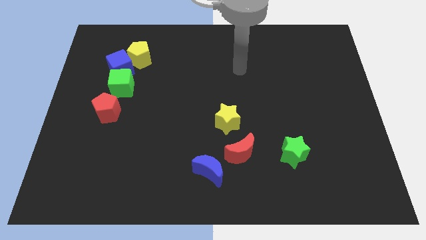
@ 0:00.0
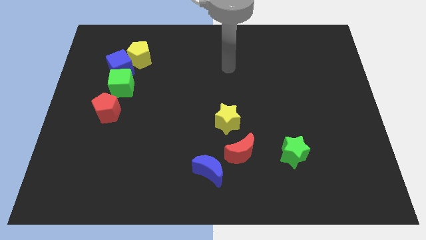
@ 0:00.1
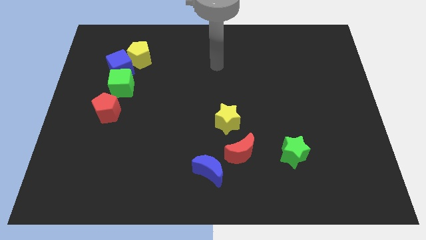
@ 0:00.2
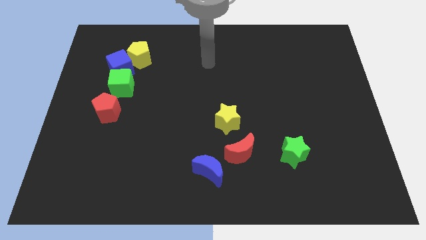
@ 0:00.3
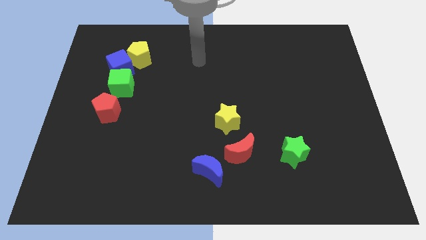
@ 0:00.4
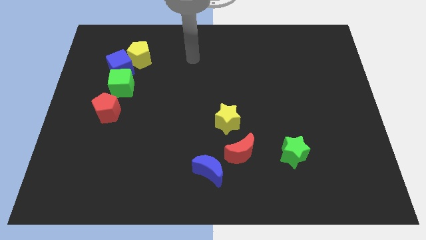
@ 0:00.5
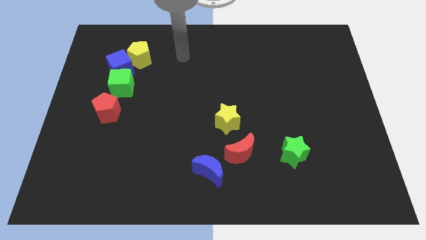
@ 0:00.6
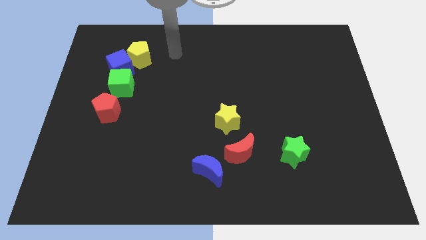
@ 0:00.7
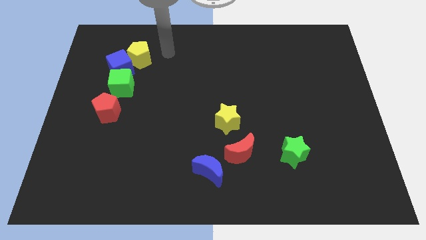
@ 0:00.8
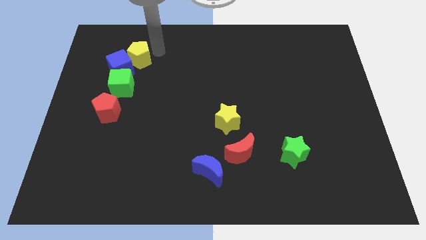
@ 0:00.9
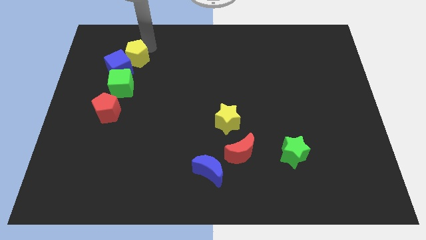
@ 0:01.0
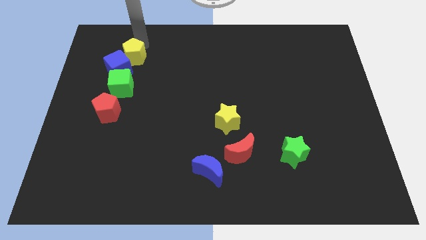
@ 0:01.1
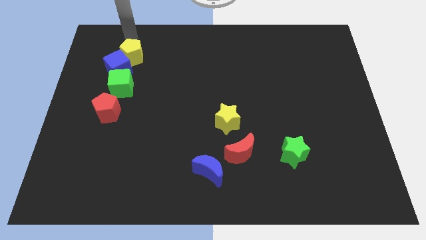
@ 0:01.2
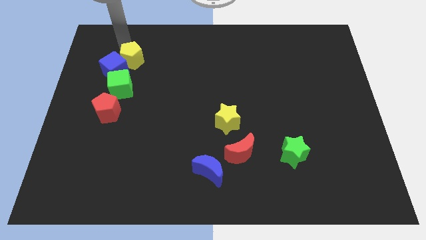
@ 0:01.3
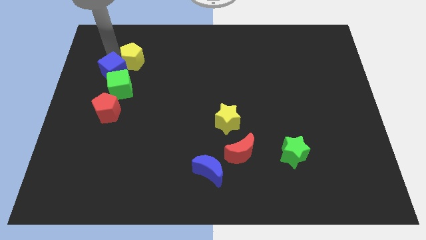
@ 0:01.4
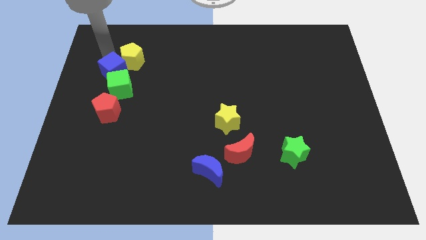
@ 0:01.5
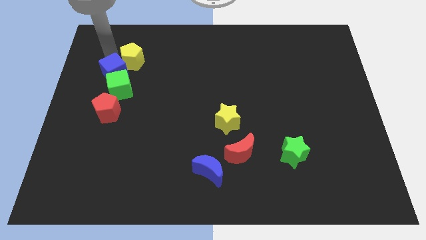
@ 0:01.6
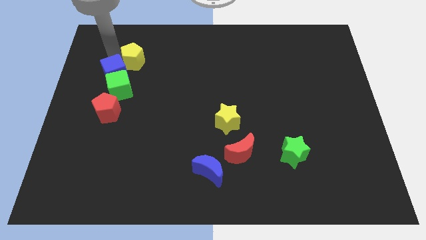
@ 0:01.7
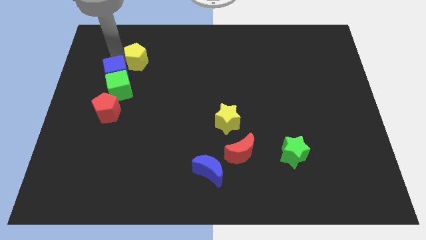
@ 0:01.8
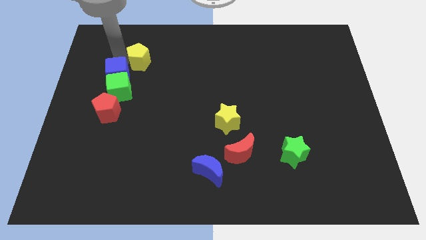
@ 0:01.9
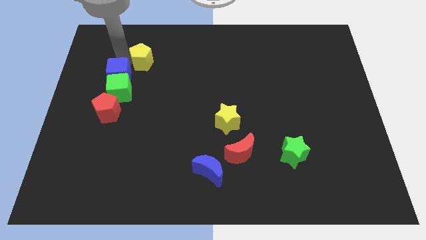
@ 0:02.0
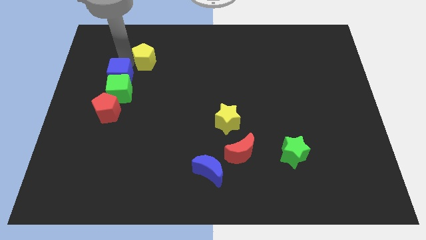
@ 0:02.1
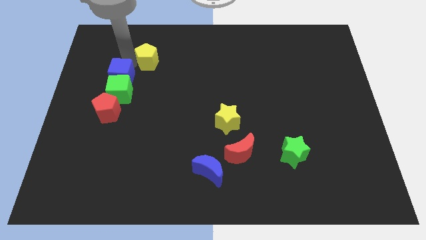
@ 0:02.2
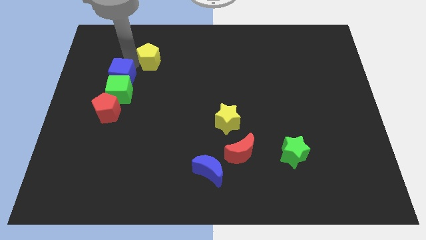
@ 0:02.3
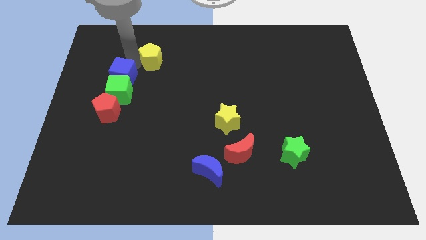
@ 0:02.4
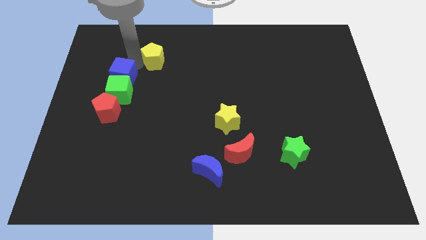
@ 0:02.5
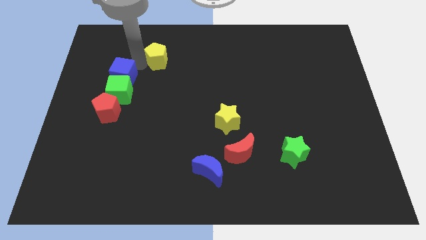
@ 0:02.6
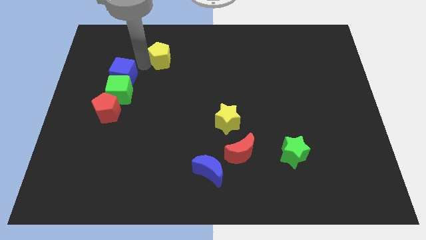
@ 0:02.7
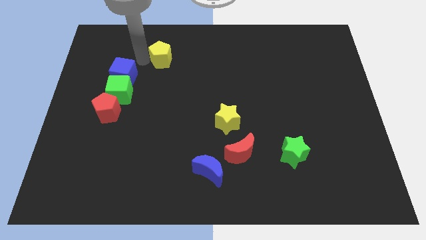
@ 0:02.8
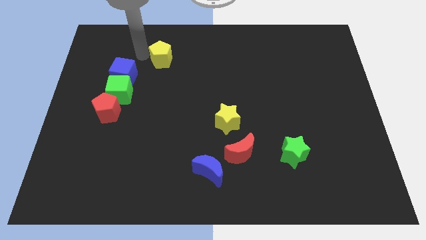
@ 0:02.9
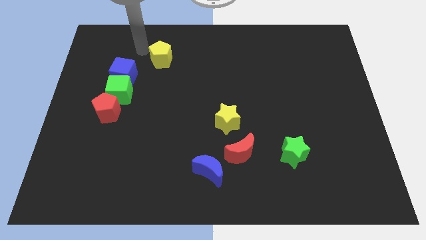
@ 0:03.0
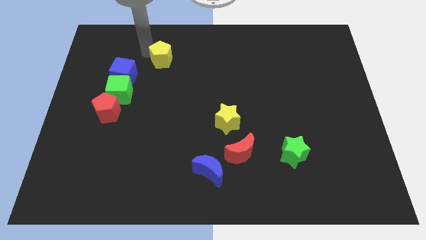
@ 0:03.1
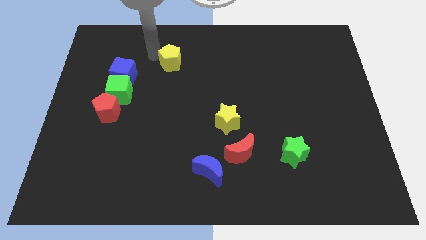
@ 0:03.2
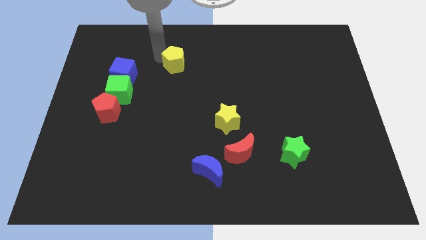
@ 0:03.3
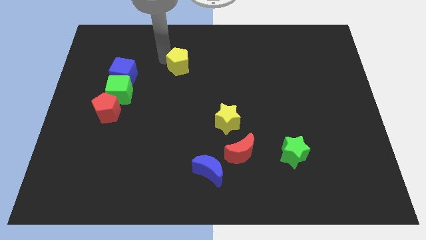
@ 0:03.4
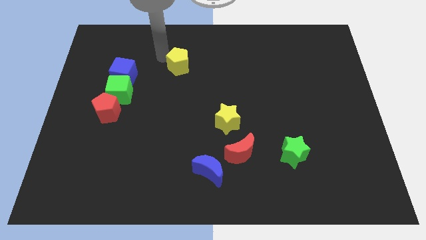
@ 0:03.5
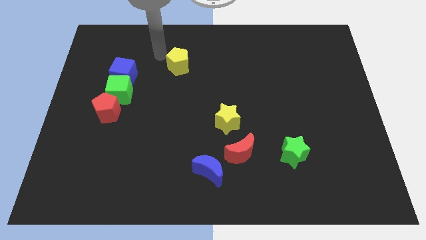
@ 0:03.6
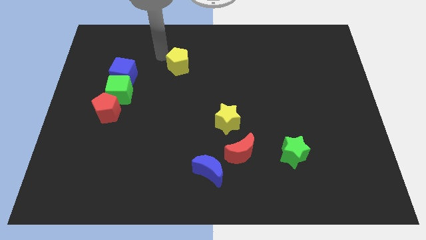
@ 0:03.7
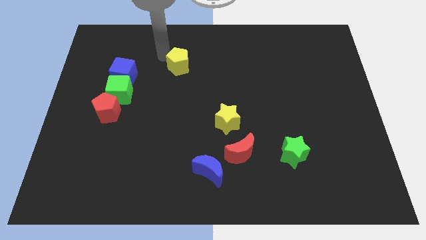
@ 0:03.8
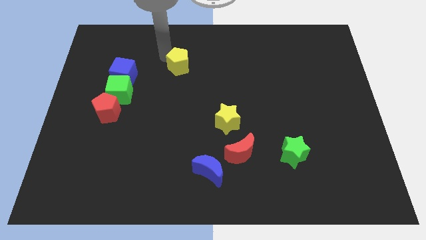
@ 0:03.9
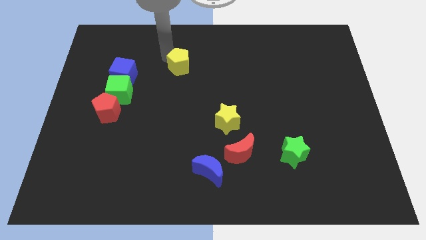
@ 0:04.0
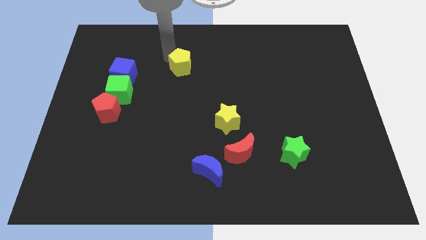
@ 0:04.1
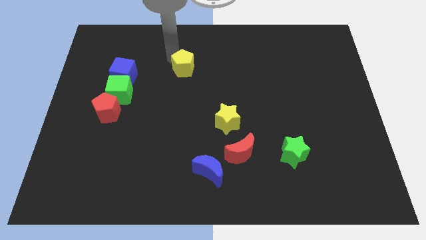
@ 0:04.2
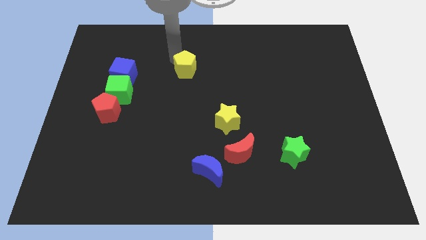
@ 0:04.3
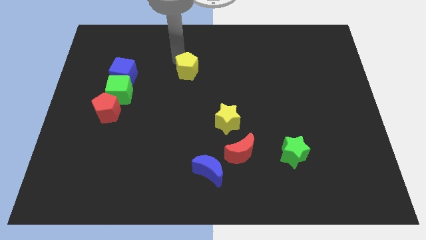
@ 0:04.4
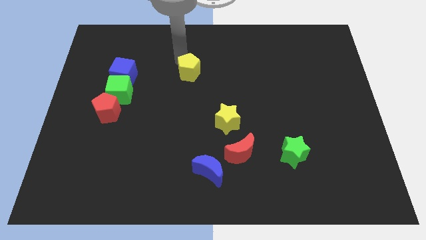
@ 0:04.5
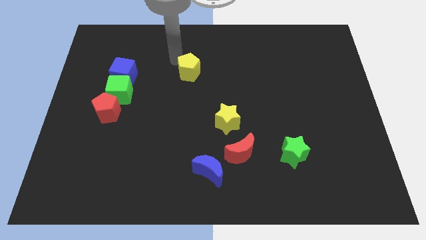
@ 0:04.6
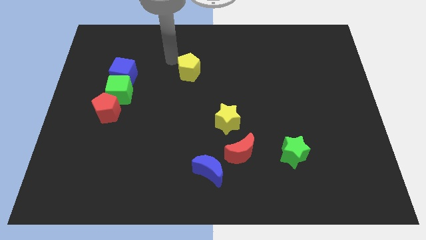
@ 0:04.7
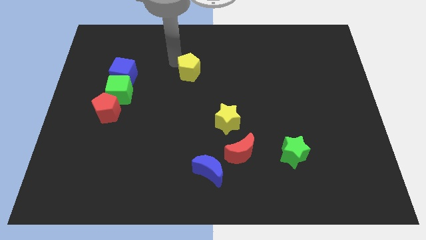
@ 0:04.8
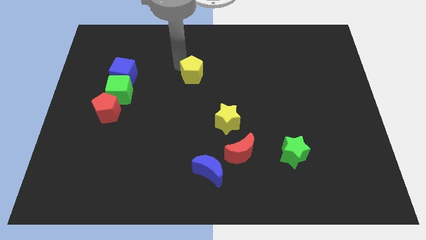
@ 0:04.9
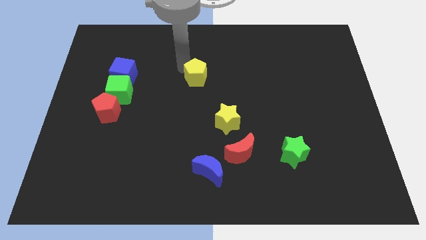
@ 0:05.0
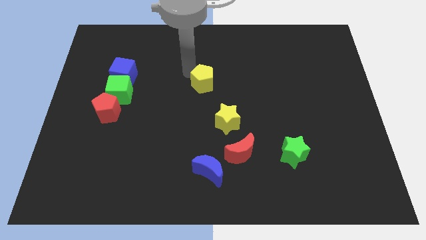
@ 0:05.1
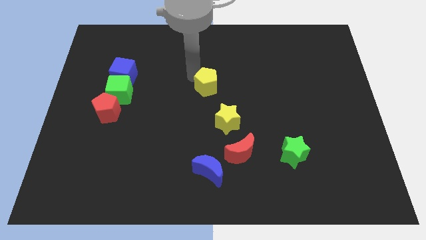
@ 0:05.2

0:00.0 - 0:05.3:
slide the yellow pentagon above the yellow star

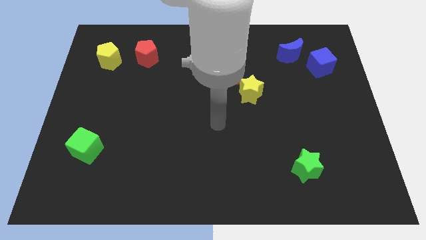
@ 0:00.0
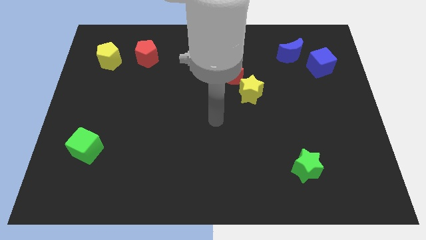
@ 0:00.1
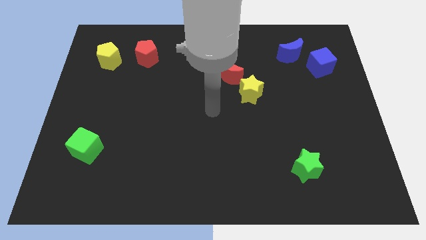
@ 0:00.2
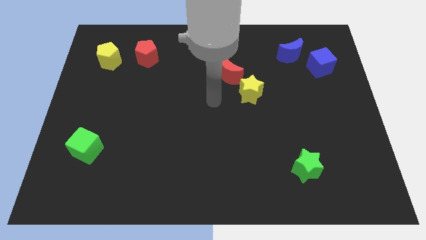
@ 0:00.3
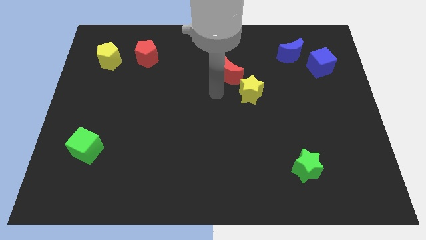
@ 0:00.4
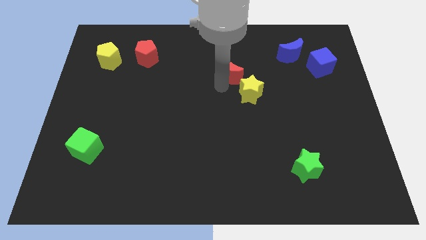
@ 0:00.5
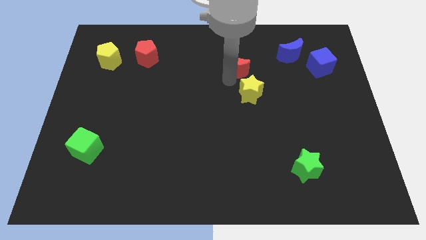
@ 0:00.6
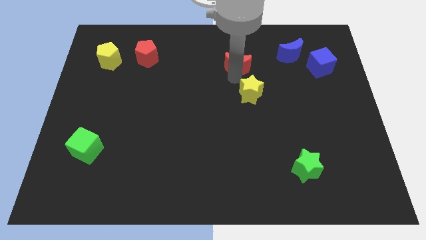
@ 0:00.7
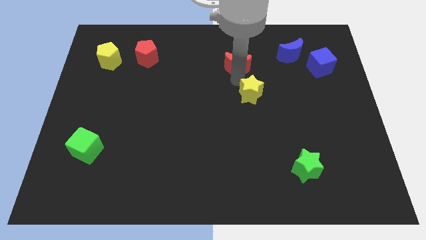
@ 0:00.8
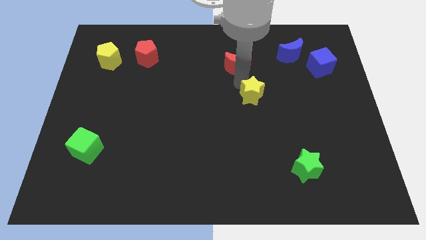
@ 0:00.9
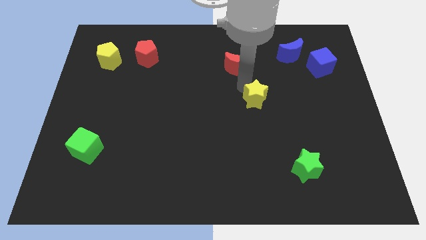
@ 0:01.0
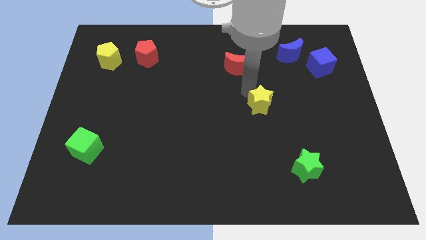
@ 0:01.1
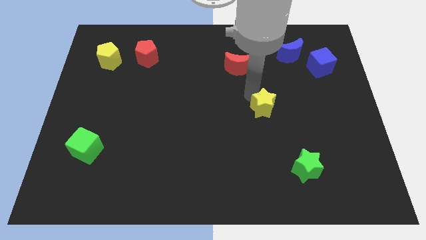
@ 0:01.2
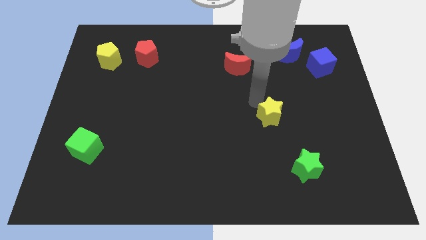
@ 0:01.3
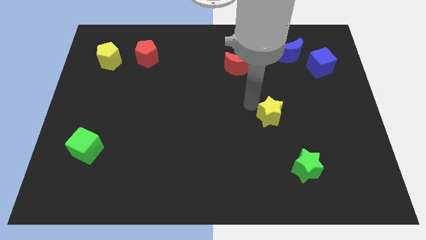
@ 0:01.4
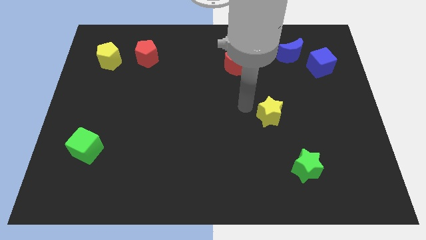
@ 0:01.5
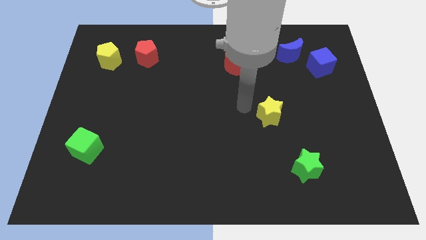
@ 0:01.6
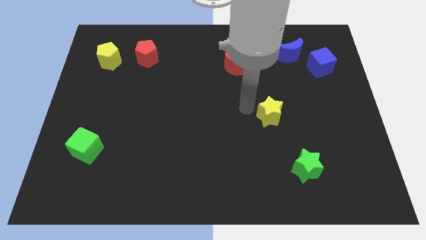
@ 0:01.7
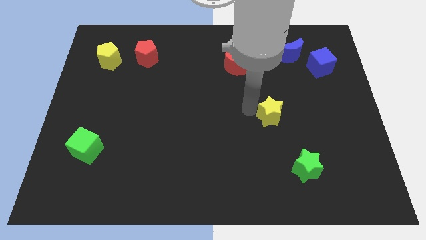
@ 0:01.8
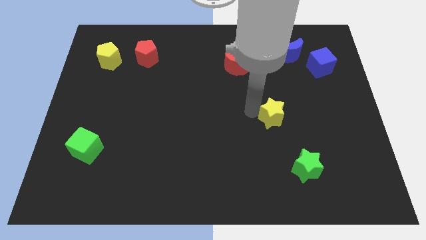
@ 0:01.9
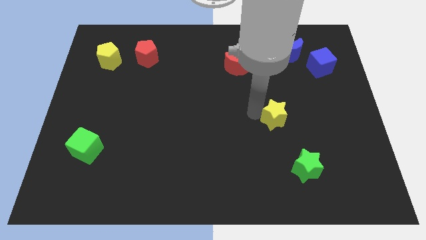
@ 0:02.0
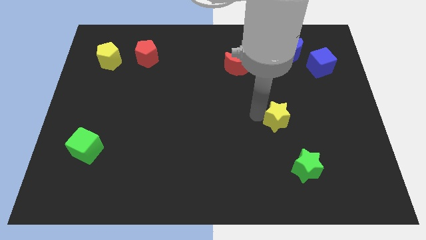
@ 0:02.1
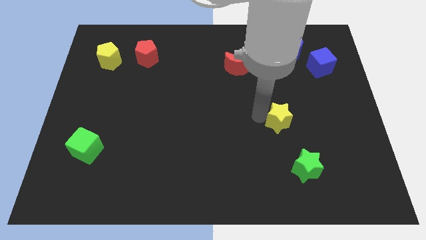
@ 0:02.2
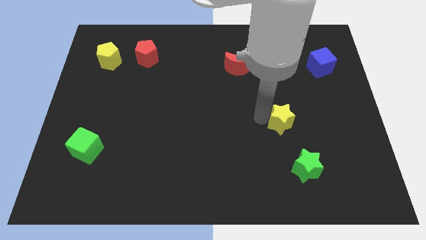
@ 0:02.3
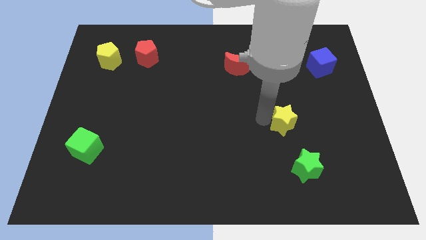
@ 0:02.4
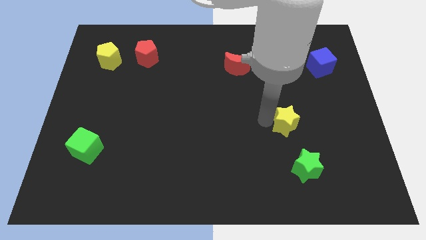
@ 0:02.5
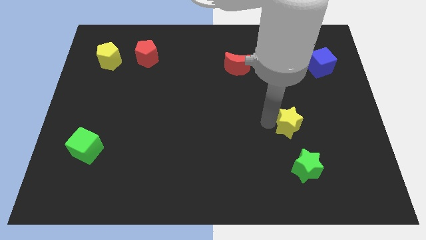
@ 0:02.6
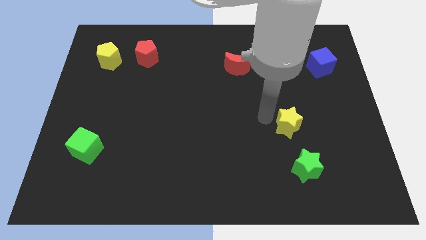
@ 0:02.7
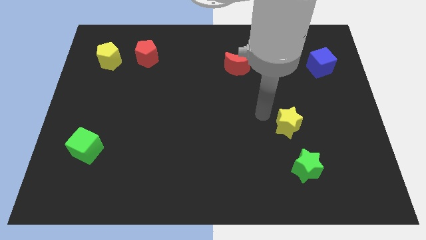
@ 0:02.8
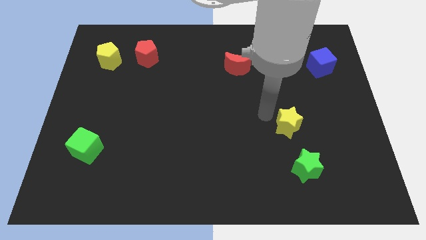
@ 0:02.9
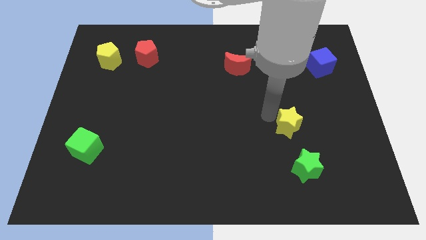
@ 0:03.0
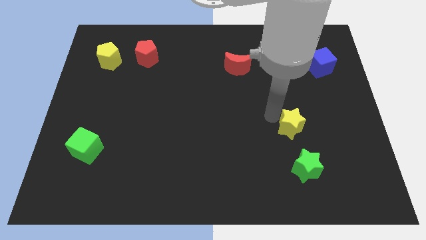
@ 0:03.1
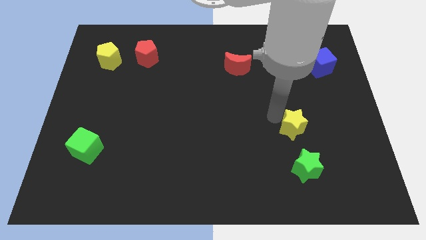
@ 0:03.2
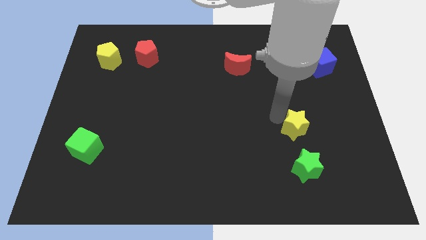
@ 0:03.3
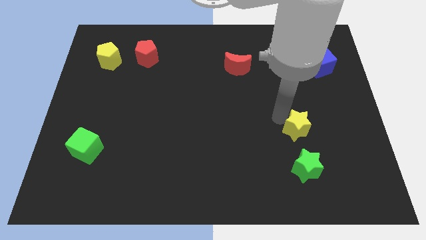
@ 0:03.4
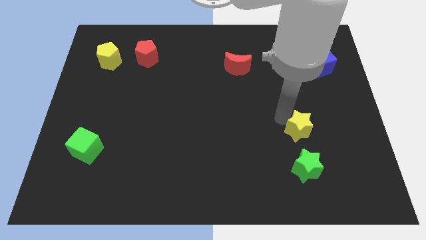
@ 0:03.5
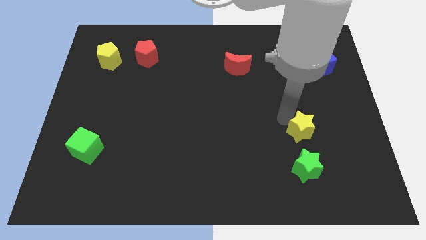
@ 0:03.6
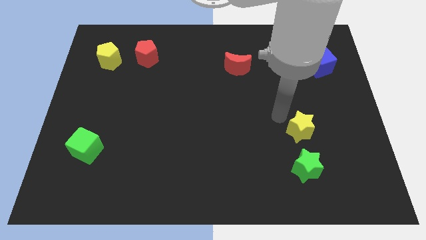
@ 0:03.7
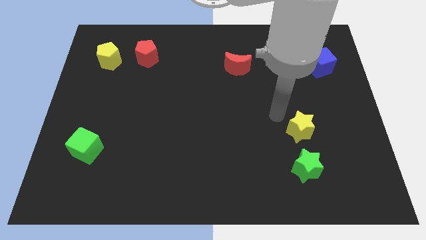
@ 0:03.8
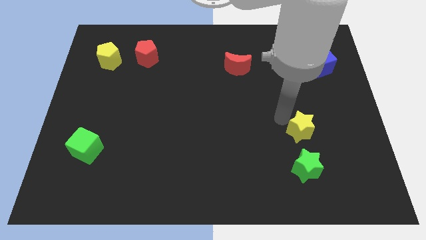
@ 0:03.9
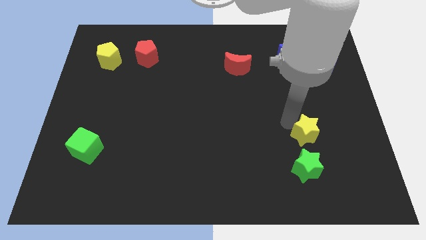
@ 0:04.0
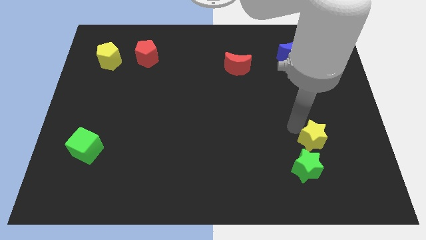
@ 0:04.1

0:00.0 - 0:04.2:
move the yellow star to the top right side of the green star
